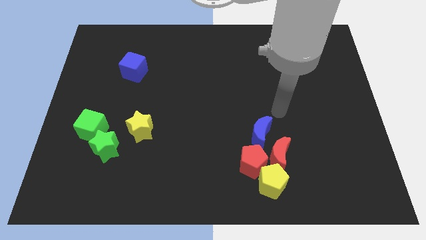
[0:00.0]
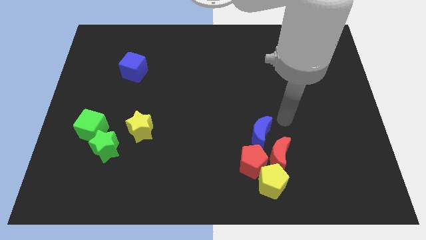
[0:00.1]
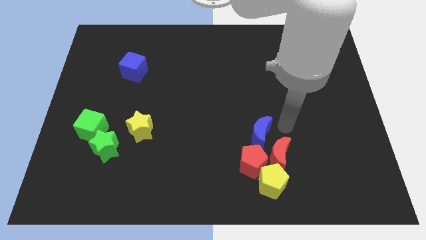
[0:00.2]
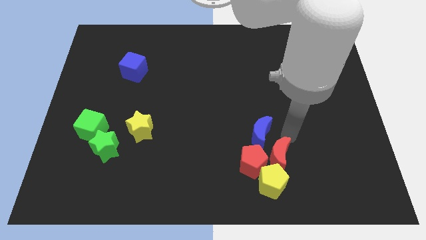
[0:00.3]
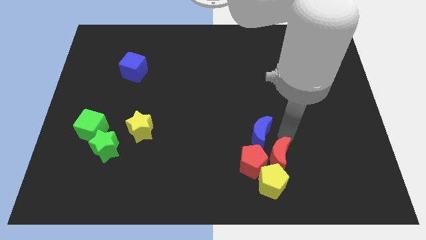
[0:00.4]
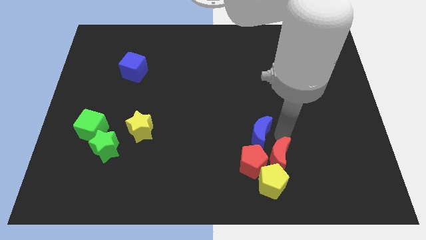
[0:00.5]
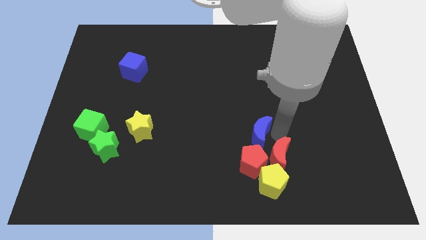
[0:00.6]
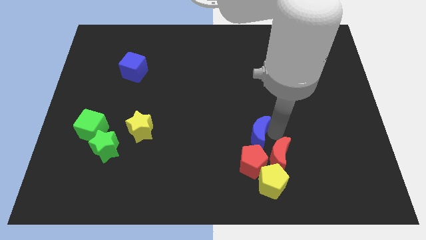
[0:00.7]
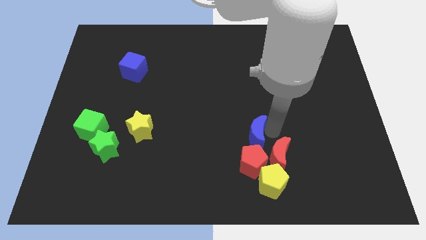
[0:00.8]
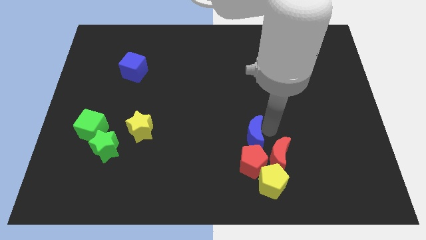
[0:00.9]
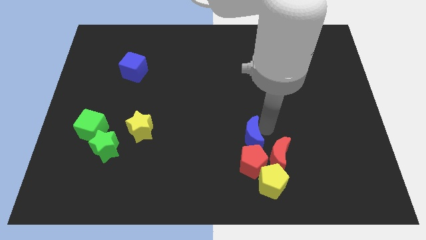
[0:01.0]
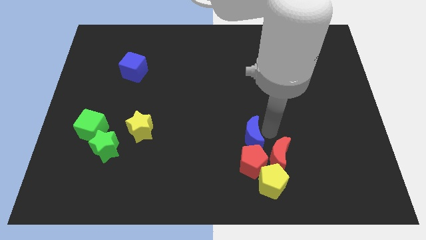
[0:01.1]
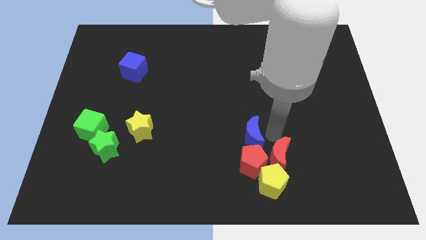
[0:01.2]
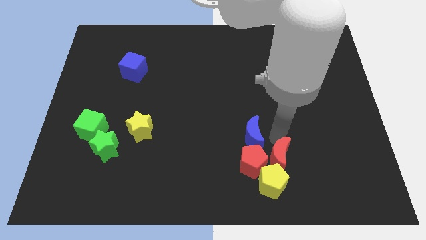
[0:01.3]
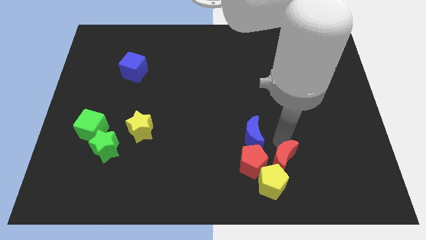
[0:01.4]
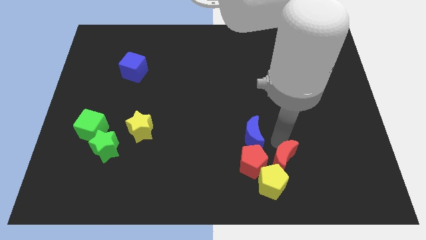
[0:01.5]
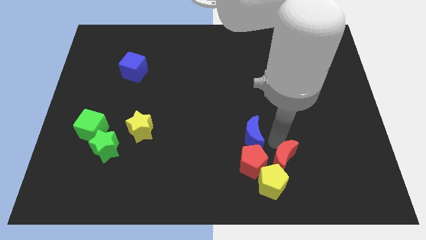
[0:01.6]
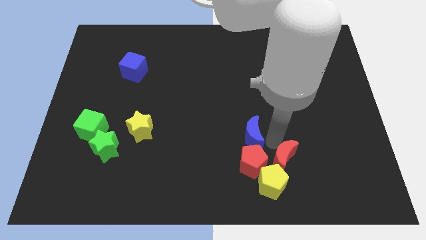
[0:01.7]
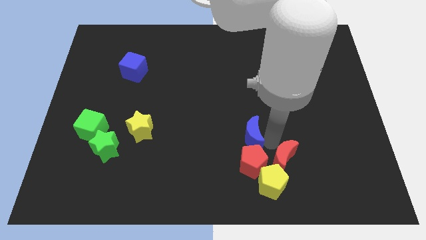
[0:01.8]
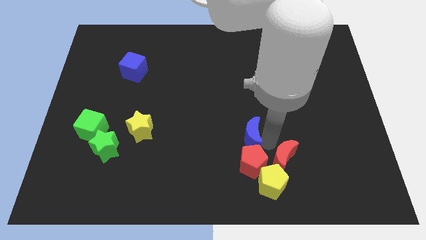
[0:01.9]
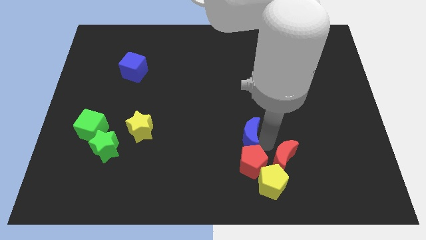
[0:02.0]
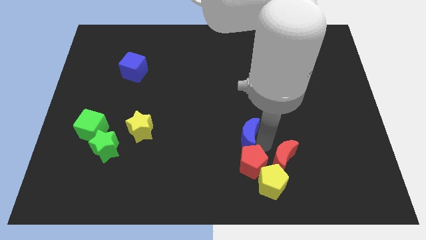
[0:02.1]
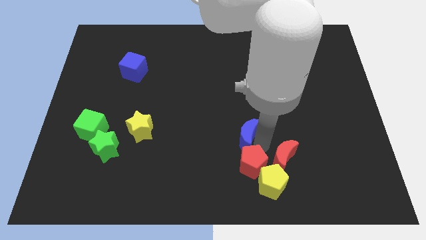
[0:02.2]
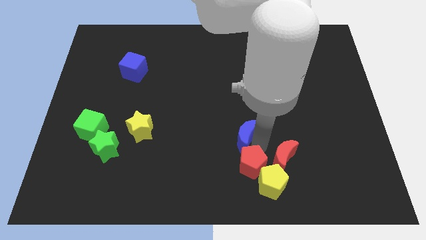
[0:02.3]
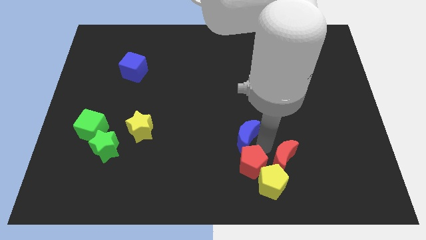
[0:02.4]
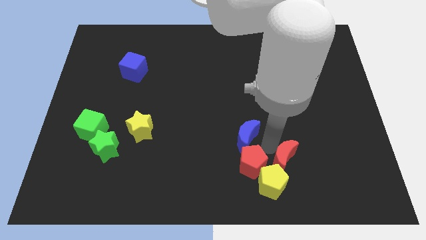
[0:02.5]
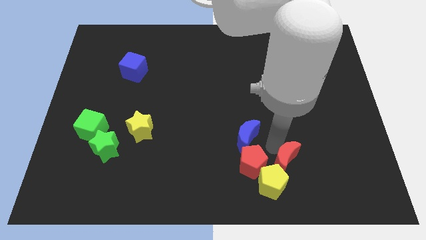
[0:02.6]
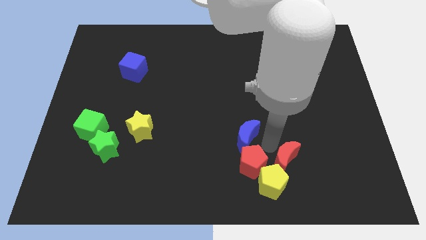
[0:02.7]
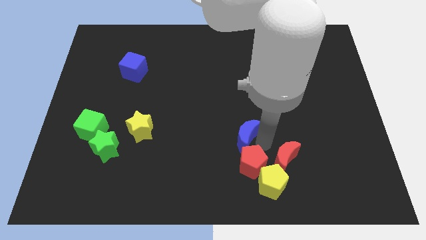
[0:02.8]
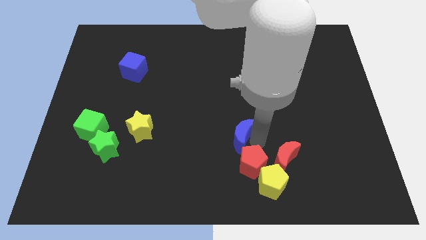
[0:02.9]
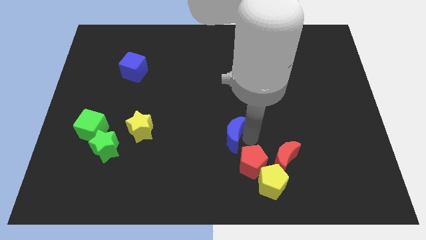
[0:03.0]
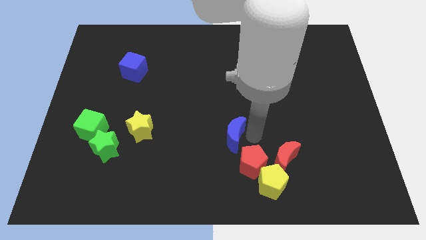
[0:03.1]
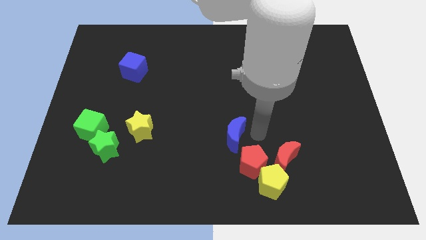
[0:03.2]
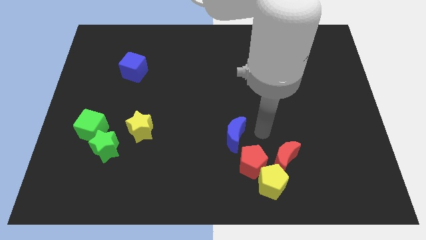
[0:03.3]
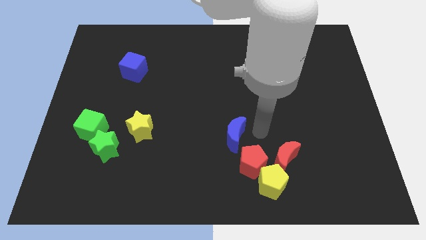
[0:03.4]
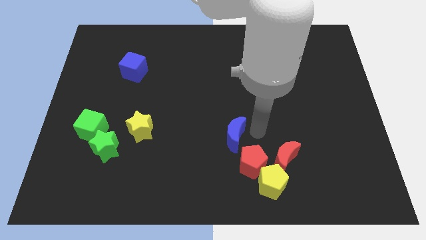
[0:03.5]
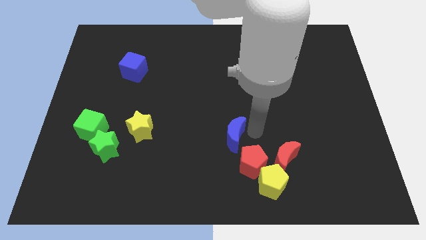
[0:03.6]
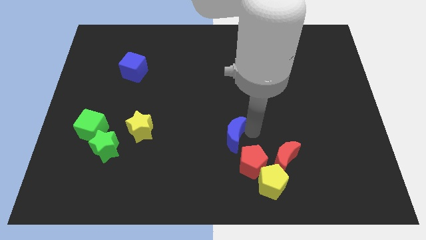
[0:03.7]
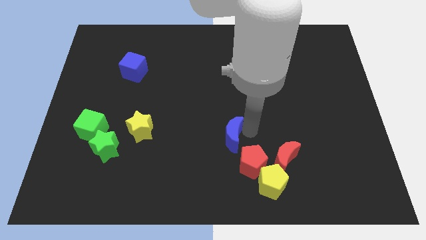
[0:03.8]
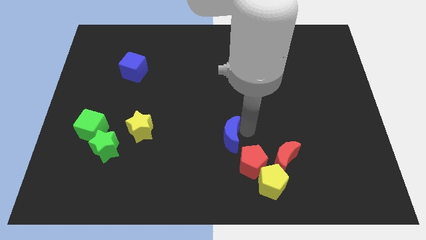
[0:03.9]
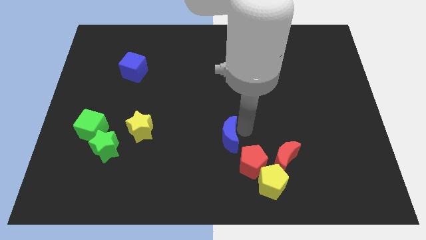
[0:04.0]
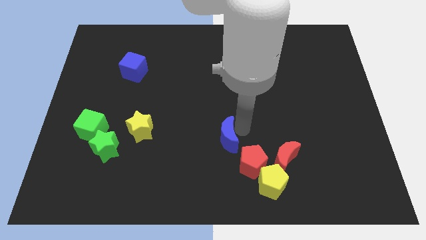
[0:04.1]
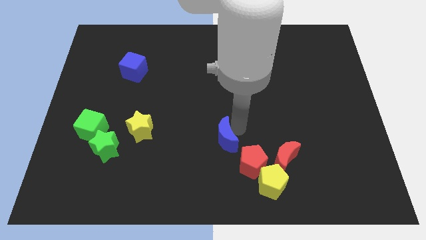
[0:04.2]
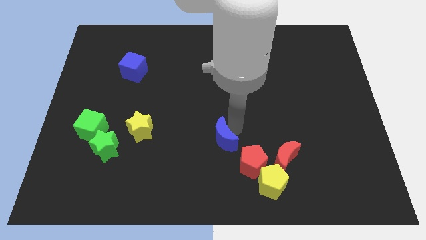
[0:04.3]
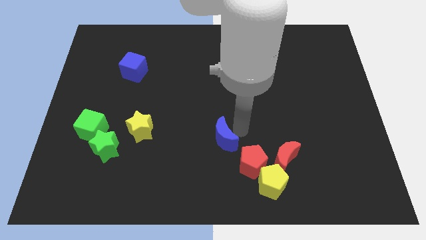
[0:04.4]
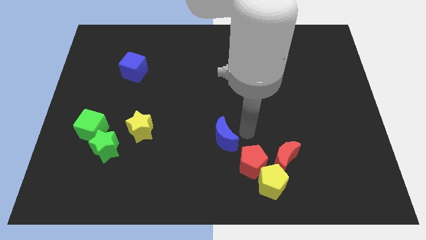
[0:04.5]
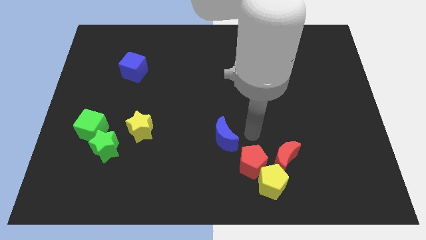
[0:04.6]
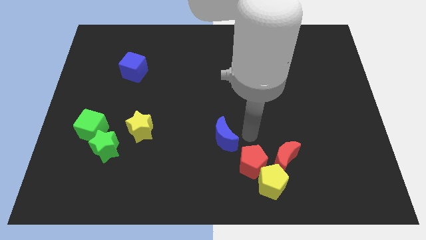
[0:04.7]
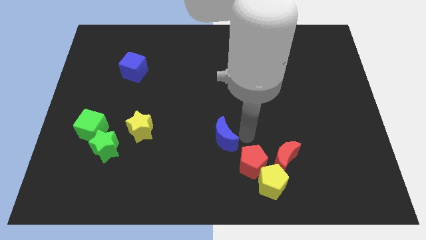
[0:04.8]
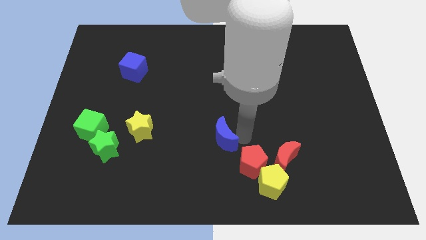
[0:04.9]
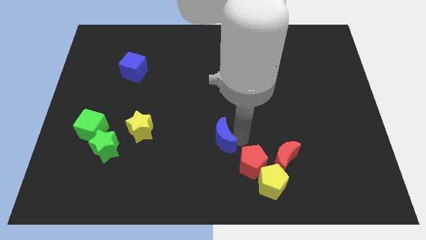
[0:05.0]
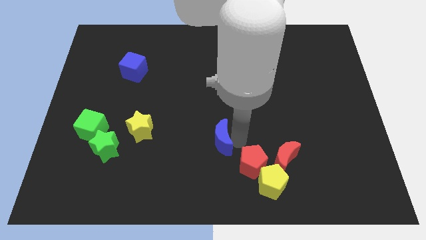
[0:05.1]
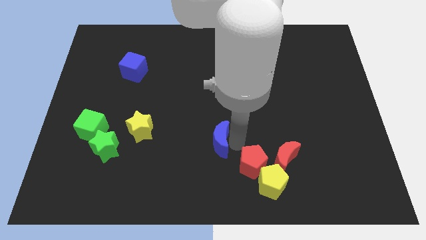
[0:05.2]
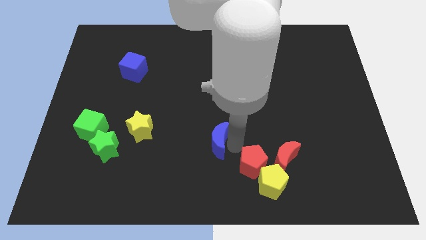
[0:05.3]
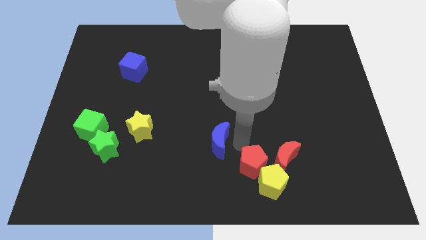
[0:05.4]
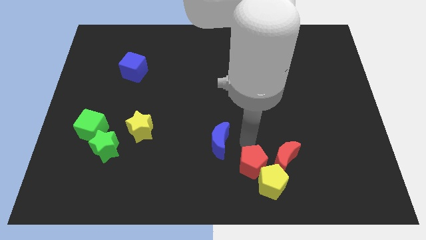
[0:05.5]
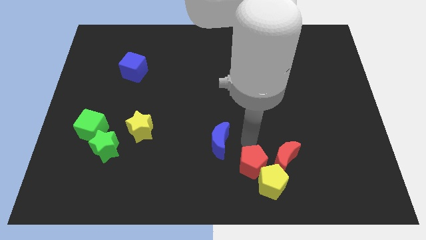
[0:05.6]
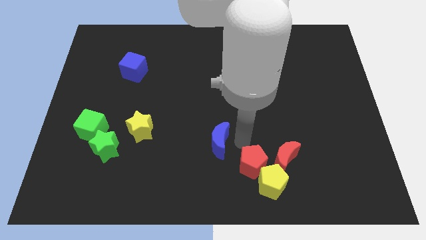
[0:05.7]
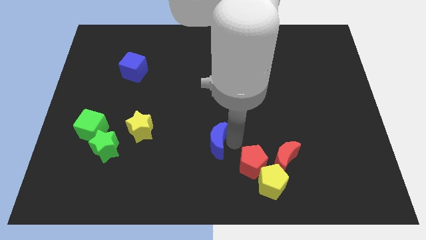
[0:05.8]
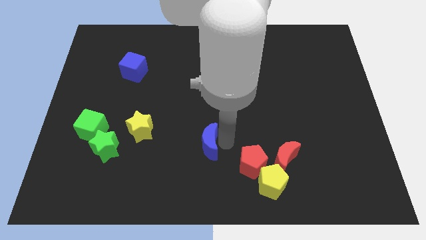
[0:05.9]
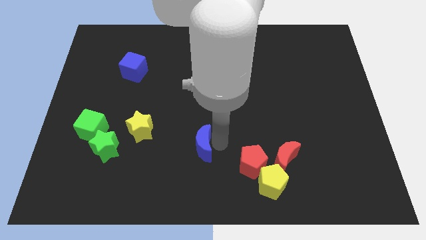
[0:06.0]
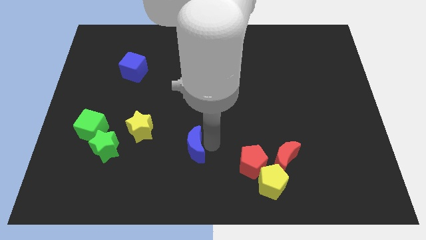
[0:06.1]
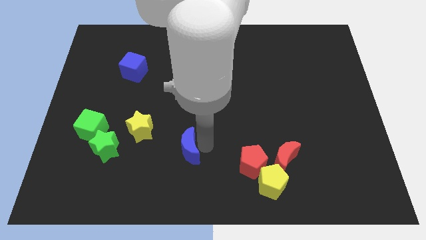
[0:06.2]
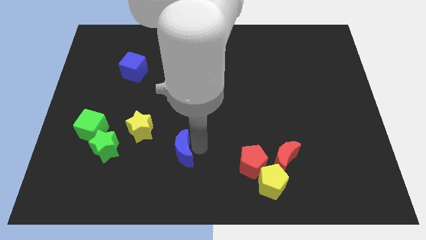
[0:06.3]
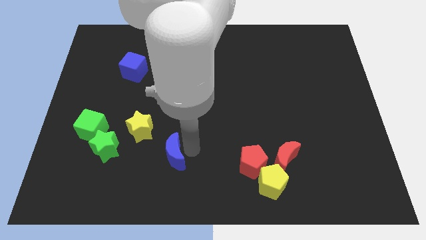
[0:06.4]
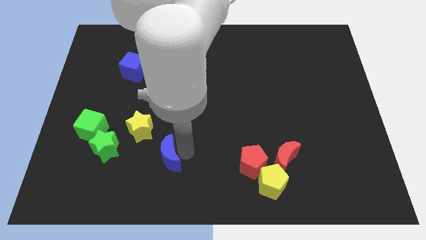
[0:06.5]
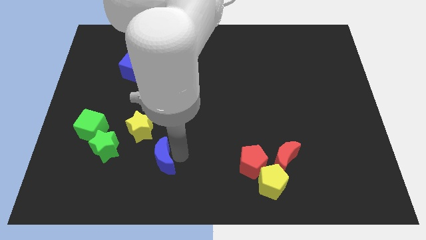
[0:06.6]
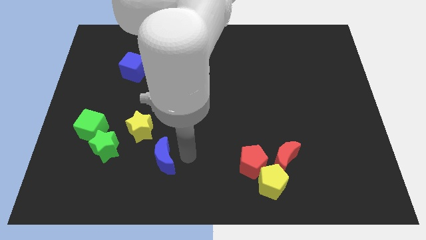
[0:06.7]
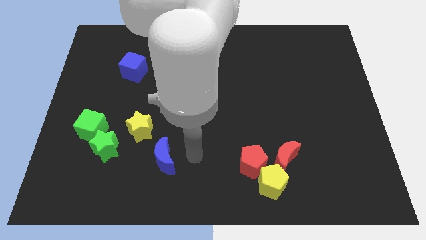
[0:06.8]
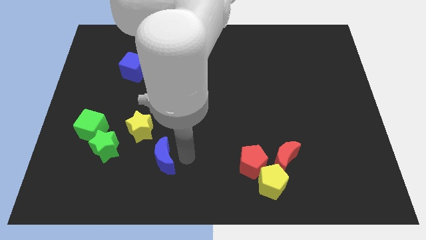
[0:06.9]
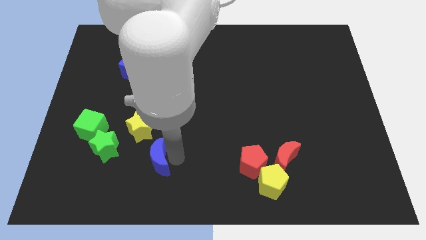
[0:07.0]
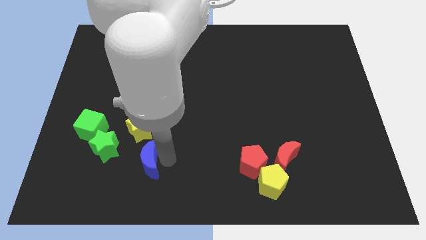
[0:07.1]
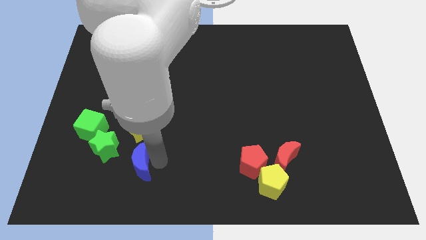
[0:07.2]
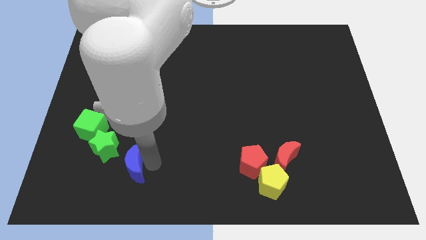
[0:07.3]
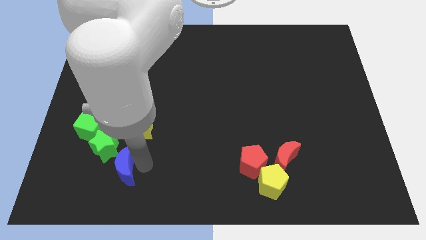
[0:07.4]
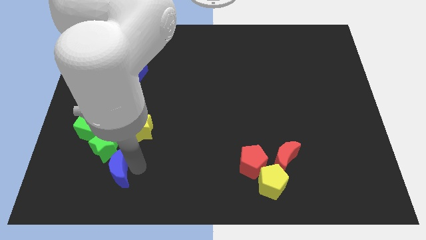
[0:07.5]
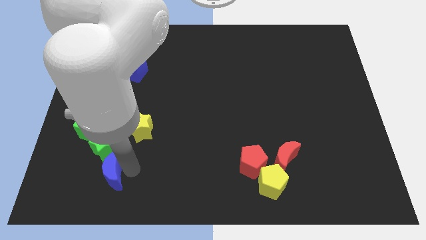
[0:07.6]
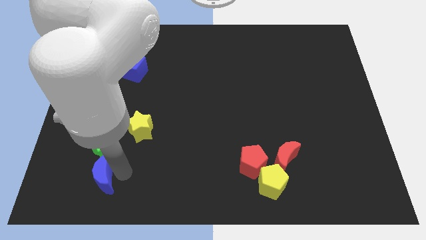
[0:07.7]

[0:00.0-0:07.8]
slide the blue moon to the bottom of the green cube
